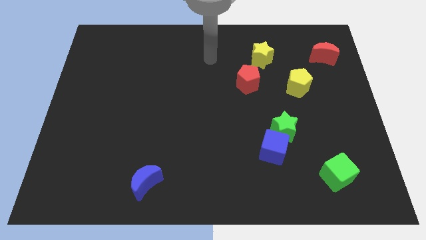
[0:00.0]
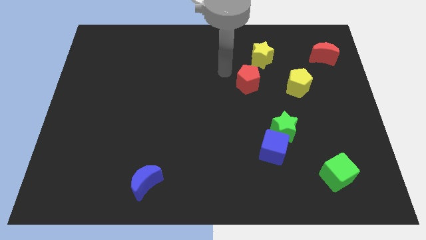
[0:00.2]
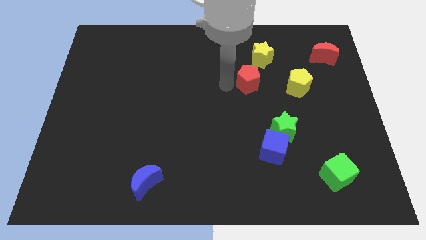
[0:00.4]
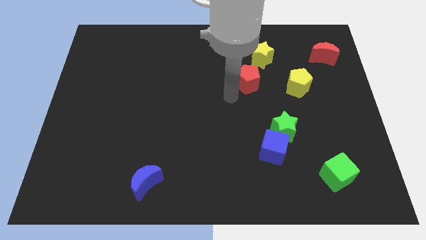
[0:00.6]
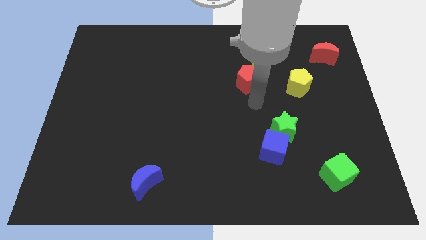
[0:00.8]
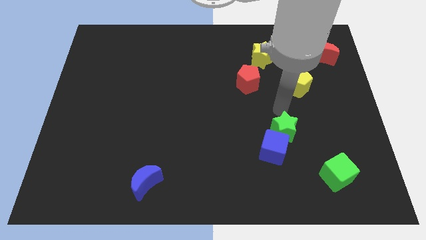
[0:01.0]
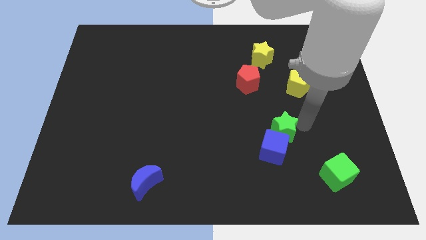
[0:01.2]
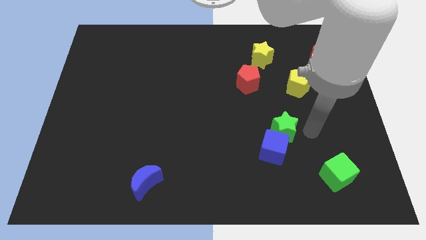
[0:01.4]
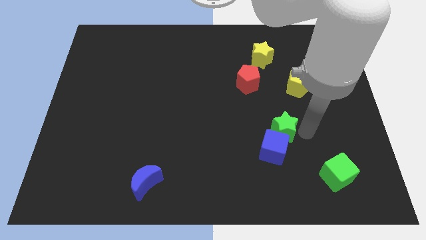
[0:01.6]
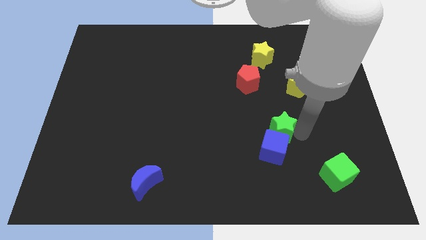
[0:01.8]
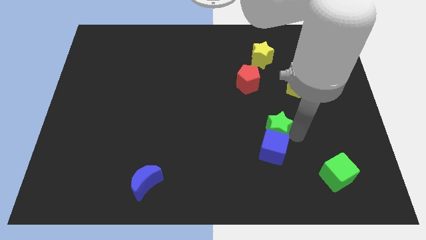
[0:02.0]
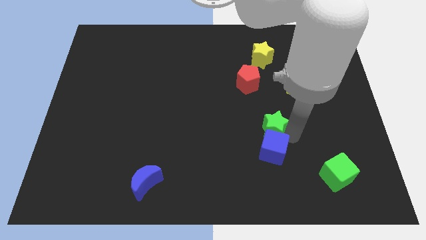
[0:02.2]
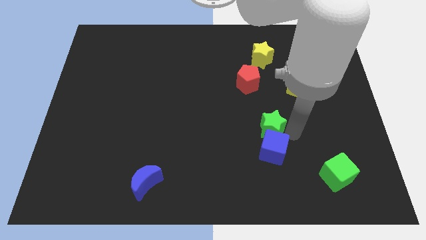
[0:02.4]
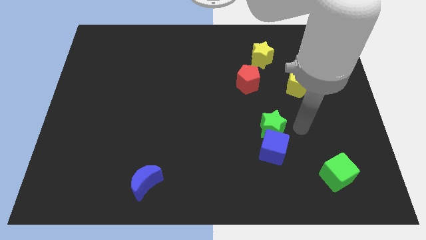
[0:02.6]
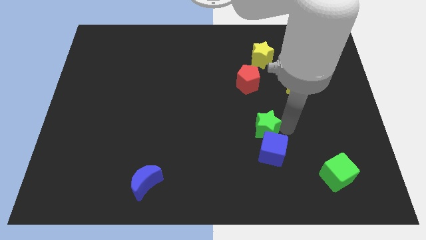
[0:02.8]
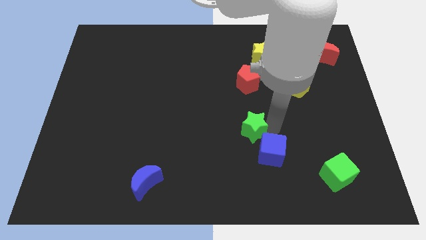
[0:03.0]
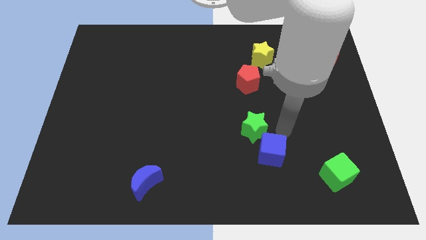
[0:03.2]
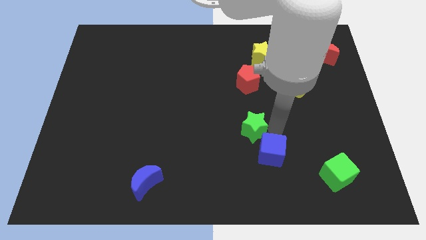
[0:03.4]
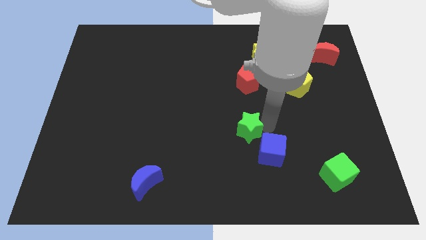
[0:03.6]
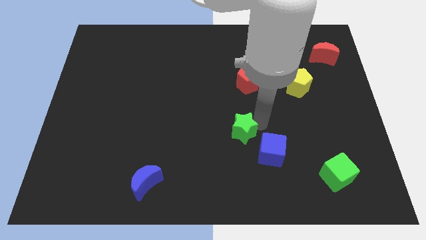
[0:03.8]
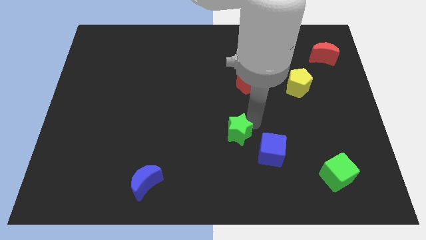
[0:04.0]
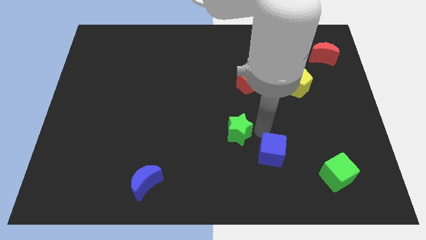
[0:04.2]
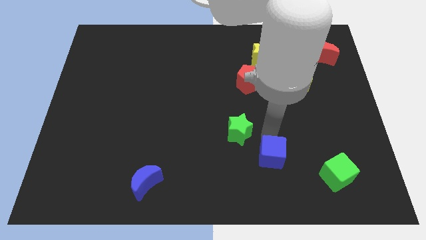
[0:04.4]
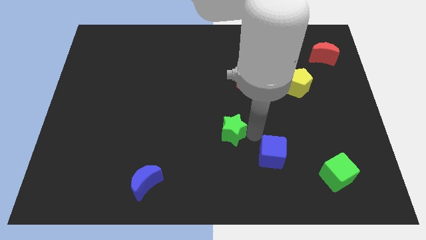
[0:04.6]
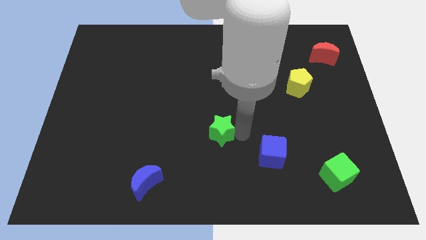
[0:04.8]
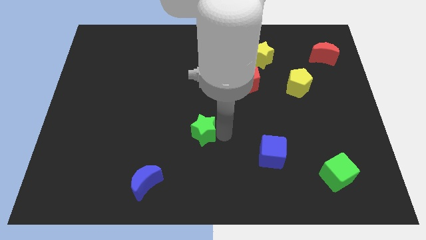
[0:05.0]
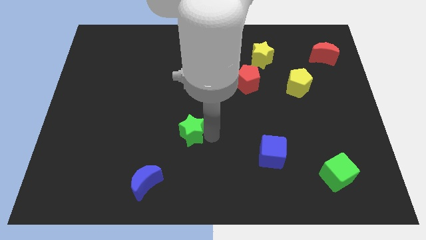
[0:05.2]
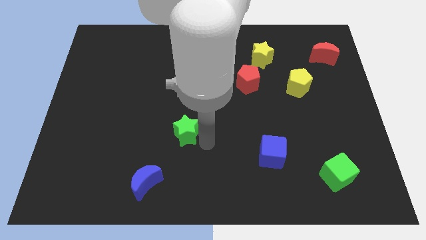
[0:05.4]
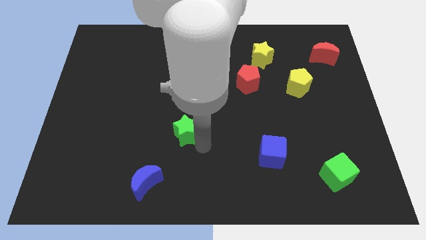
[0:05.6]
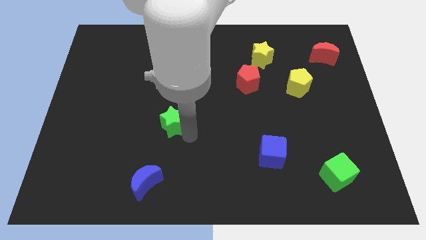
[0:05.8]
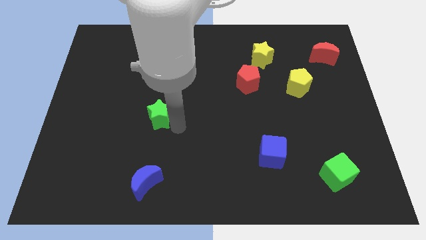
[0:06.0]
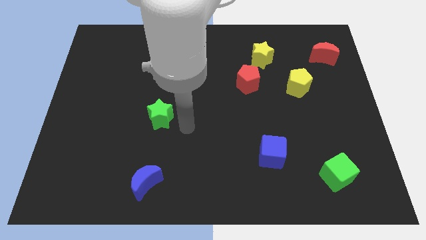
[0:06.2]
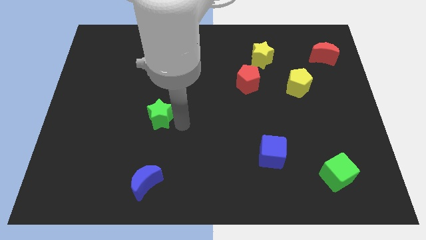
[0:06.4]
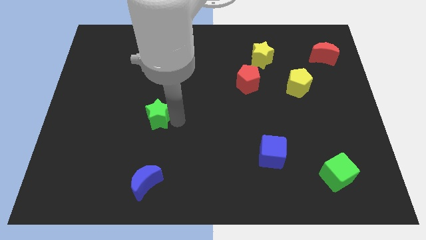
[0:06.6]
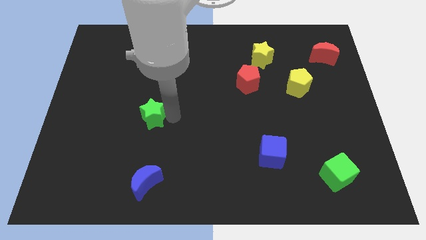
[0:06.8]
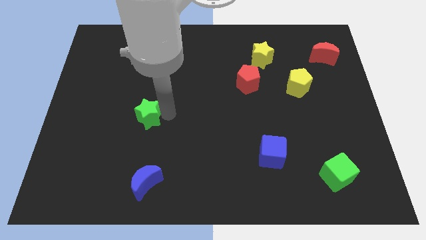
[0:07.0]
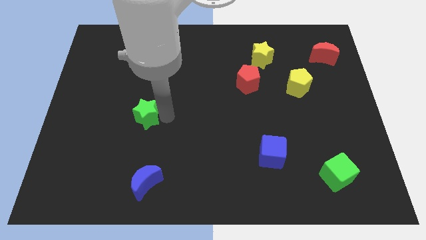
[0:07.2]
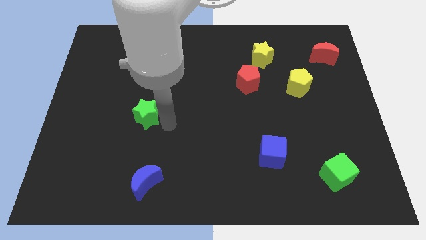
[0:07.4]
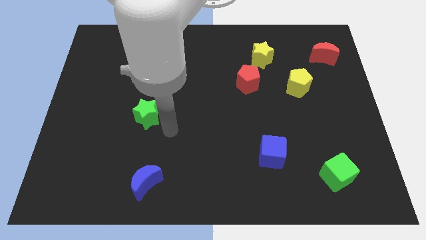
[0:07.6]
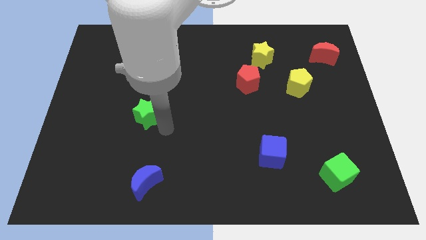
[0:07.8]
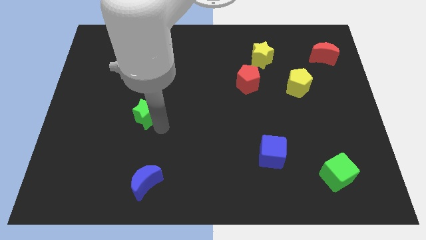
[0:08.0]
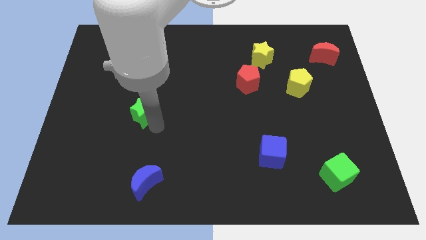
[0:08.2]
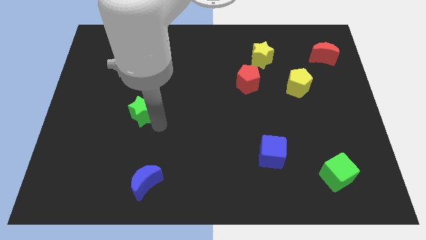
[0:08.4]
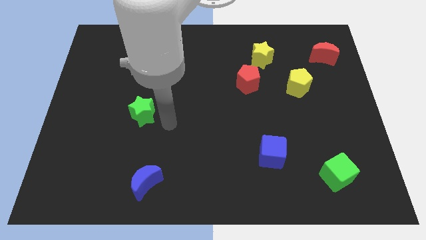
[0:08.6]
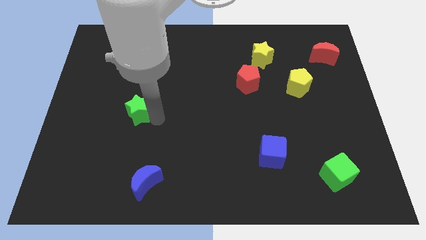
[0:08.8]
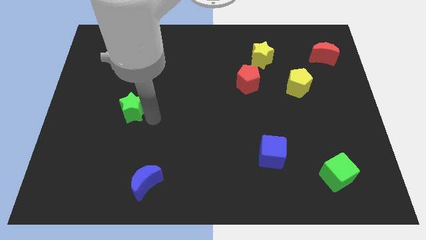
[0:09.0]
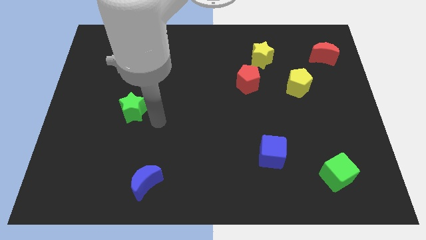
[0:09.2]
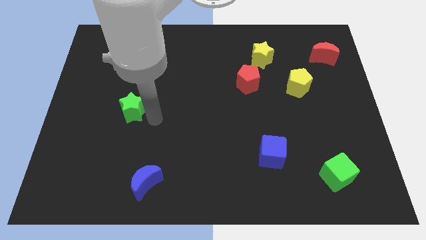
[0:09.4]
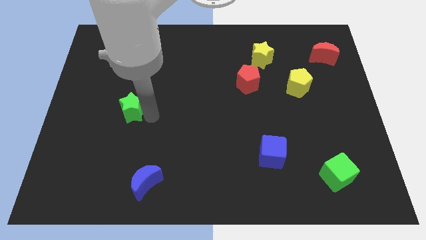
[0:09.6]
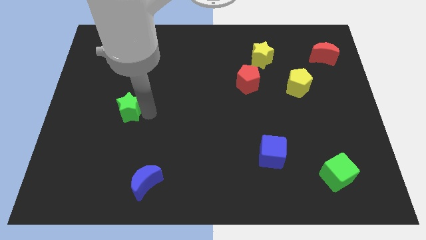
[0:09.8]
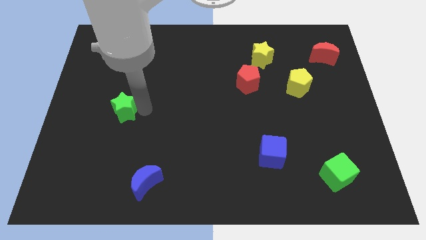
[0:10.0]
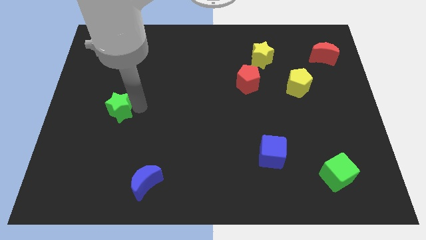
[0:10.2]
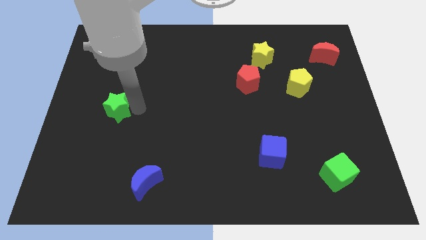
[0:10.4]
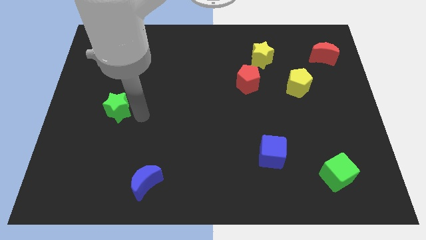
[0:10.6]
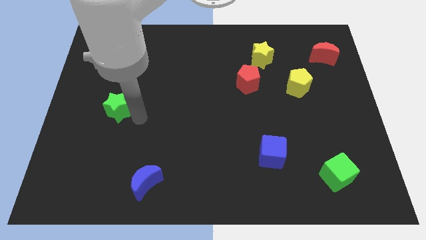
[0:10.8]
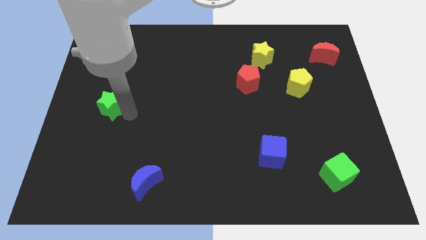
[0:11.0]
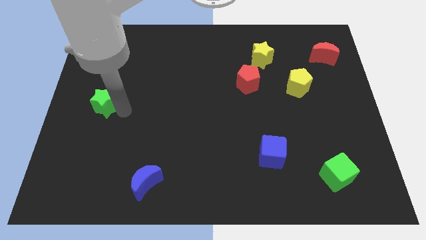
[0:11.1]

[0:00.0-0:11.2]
move the green star to the center left

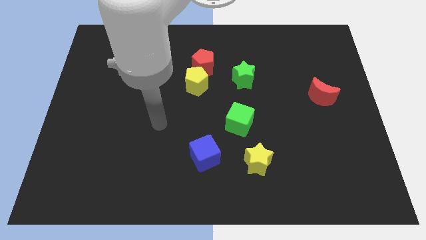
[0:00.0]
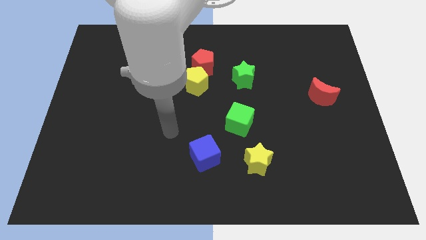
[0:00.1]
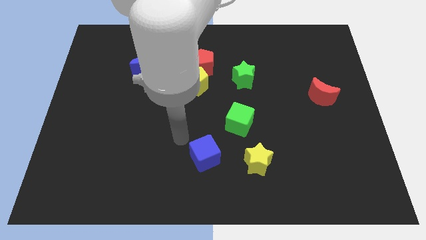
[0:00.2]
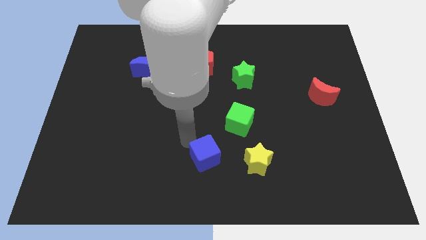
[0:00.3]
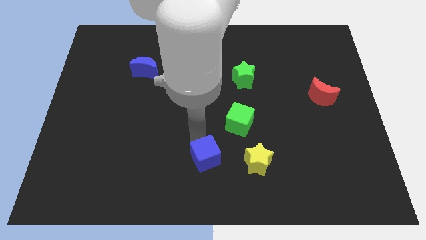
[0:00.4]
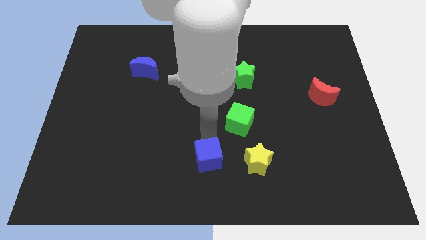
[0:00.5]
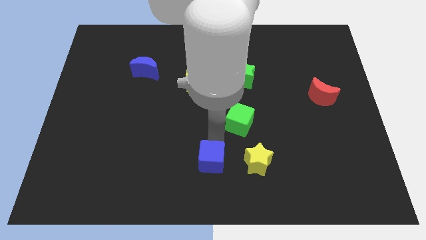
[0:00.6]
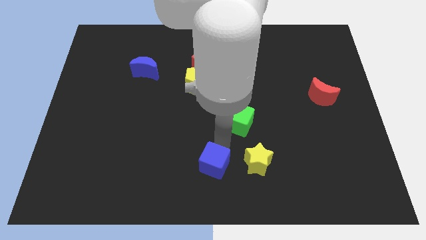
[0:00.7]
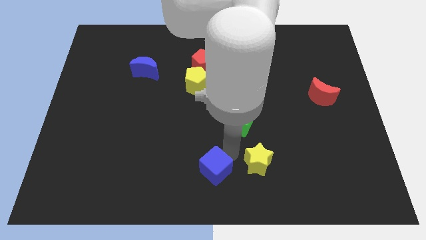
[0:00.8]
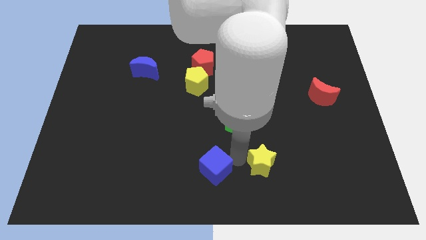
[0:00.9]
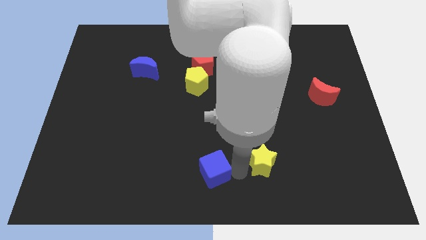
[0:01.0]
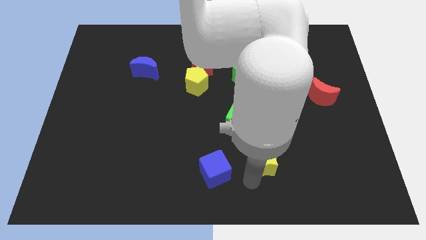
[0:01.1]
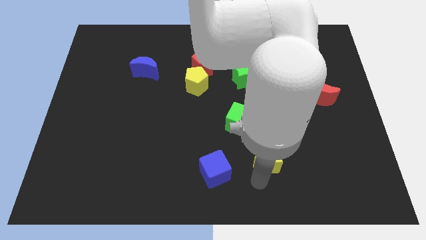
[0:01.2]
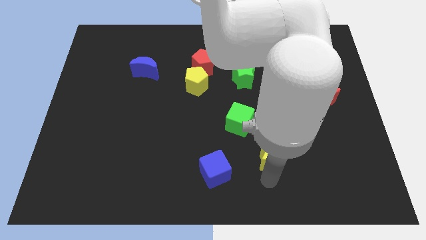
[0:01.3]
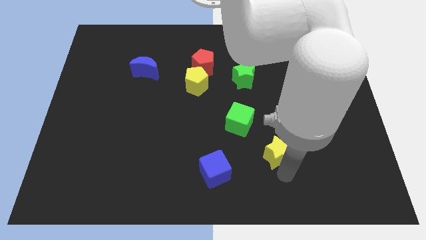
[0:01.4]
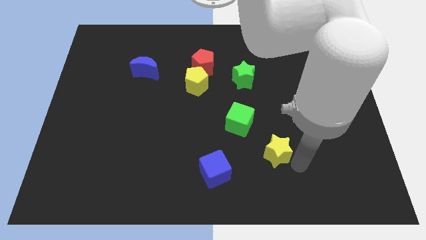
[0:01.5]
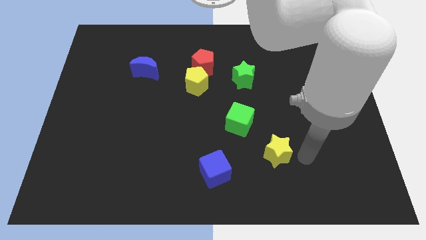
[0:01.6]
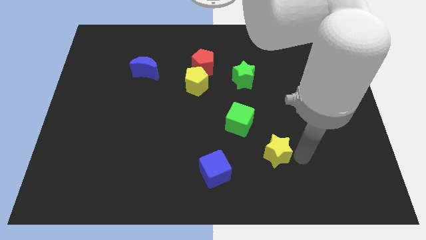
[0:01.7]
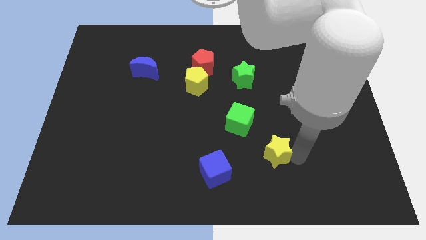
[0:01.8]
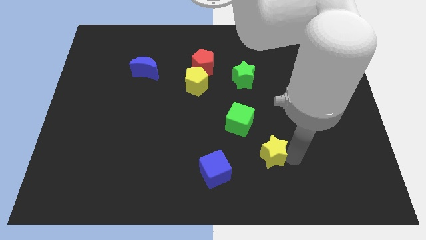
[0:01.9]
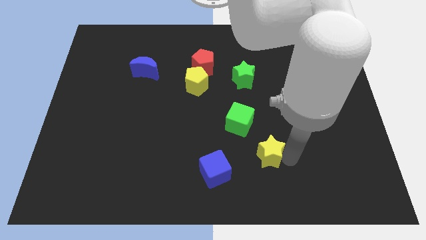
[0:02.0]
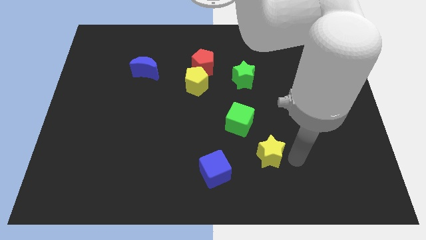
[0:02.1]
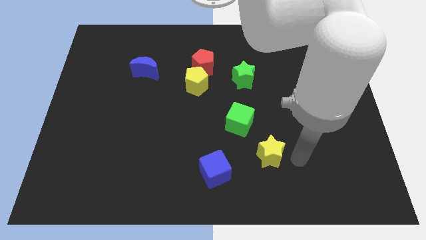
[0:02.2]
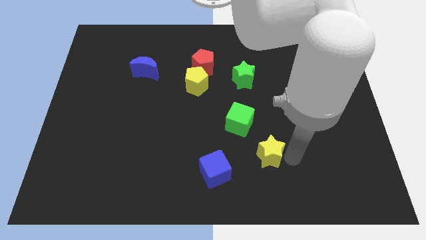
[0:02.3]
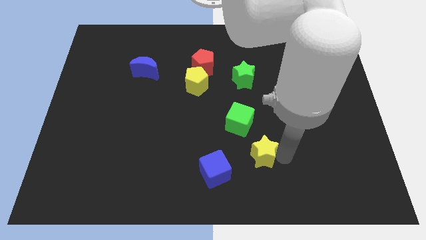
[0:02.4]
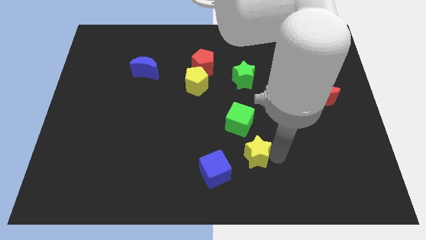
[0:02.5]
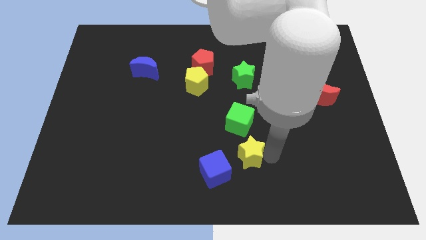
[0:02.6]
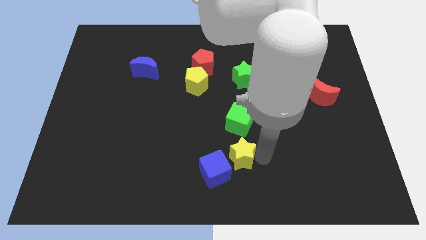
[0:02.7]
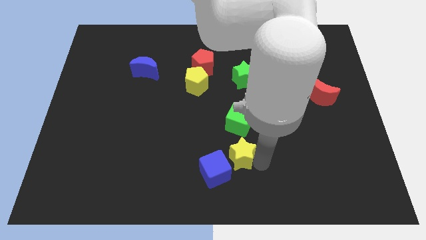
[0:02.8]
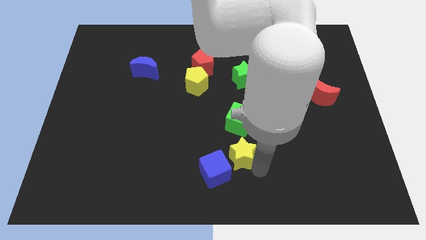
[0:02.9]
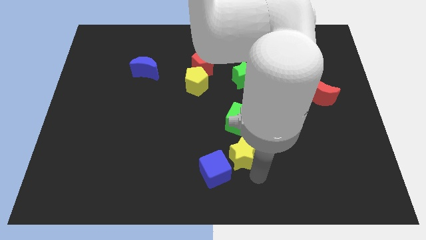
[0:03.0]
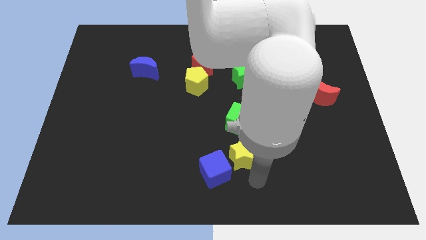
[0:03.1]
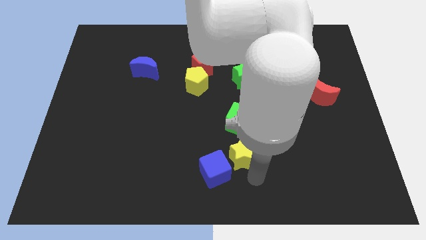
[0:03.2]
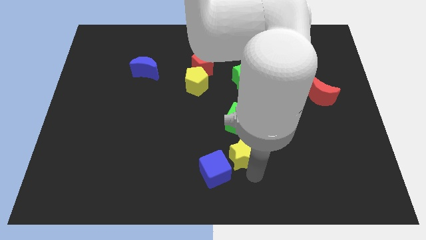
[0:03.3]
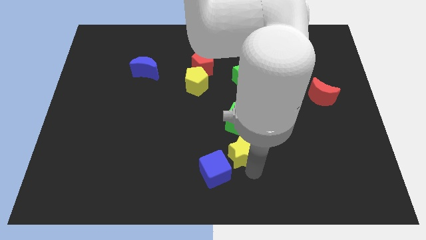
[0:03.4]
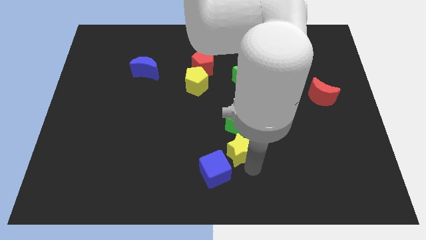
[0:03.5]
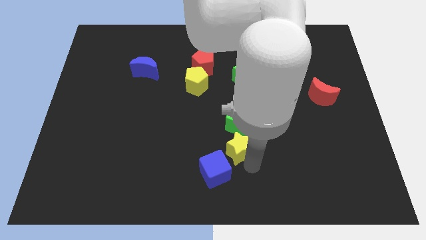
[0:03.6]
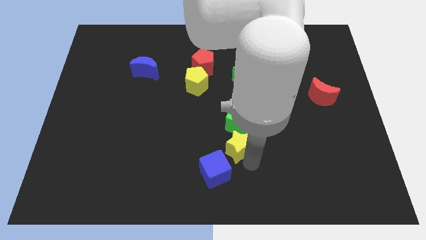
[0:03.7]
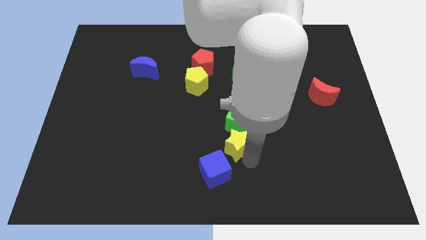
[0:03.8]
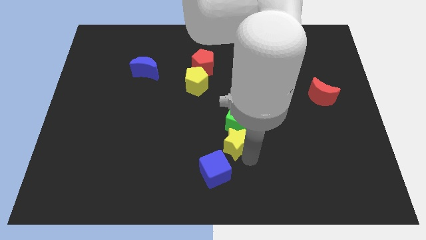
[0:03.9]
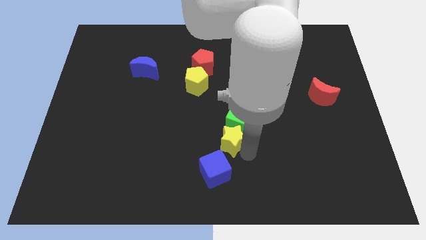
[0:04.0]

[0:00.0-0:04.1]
put the yellow star to the center
